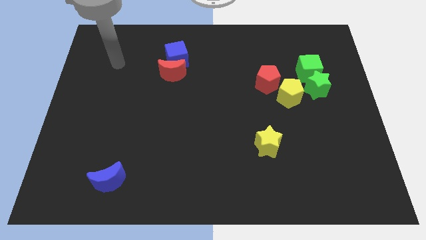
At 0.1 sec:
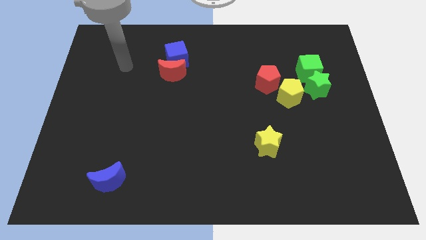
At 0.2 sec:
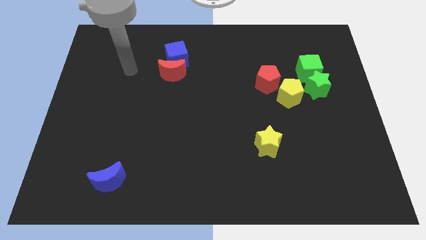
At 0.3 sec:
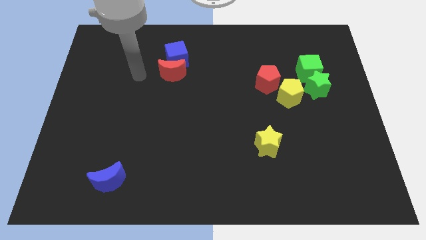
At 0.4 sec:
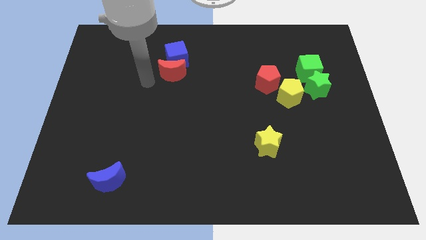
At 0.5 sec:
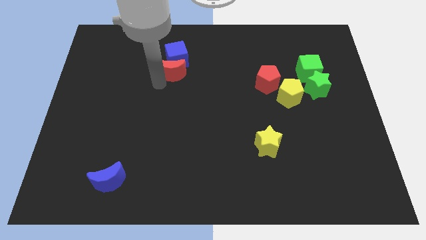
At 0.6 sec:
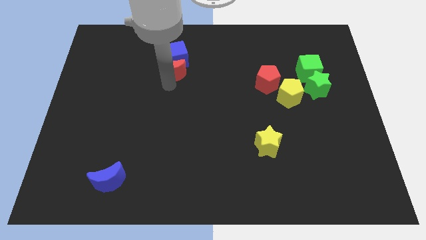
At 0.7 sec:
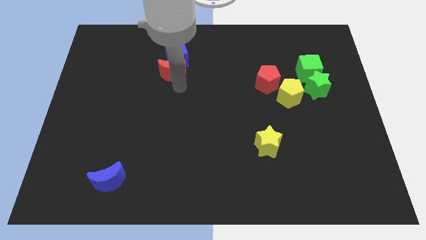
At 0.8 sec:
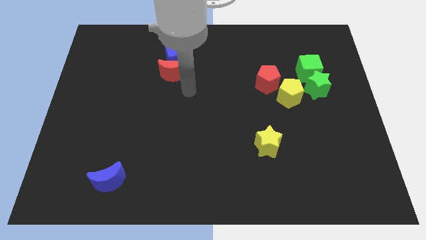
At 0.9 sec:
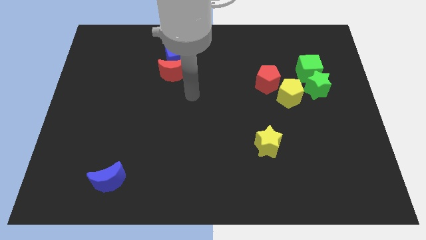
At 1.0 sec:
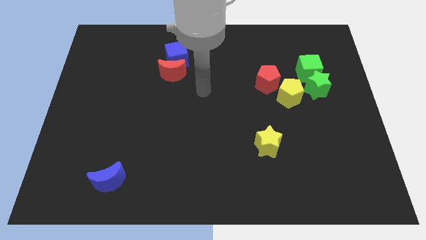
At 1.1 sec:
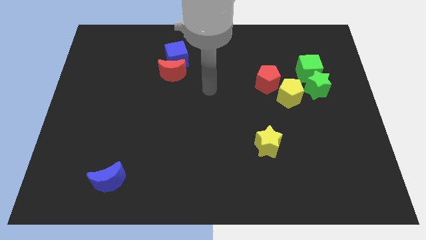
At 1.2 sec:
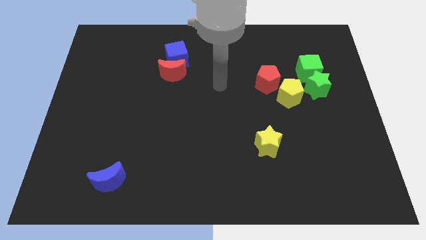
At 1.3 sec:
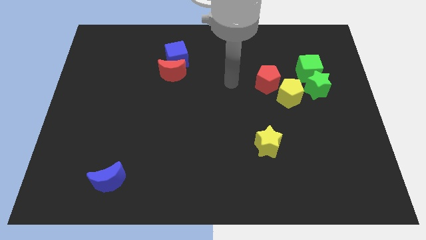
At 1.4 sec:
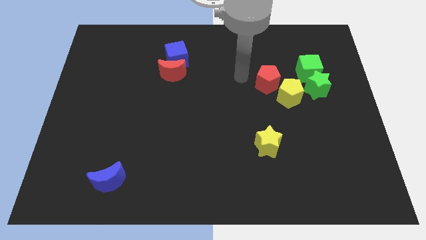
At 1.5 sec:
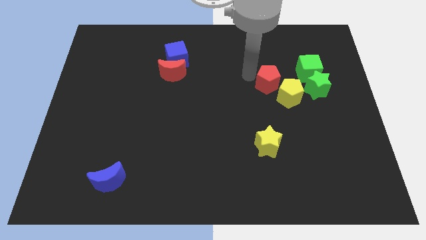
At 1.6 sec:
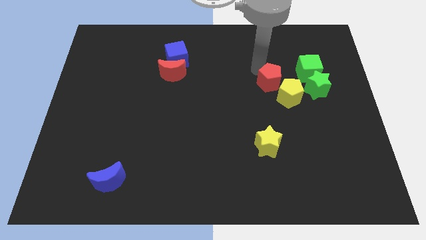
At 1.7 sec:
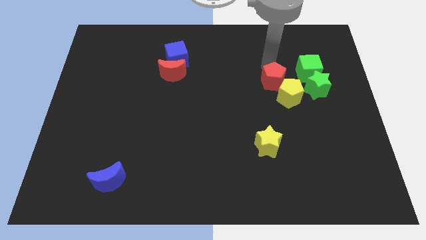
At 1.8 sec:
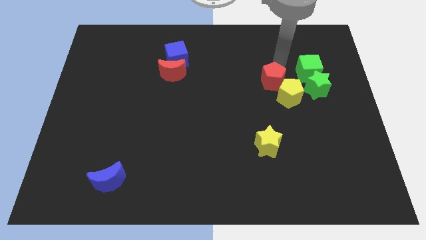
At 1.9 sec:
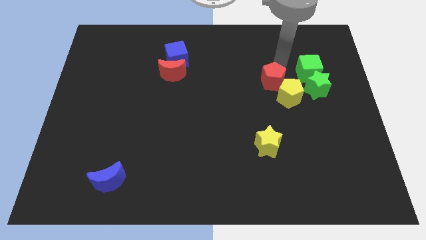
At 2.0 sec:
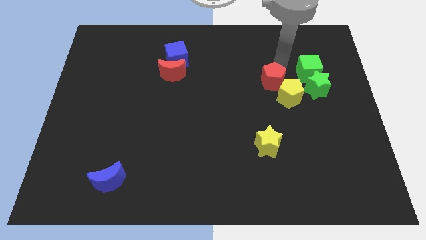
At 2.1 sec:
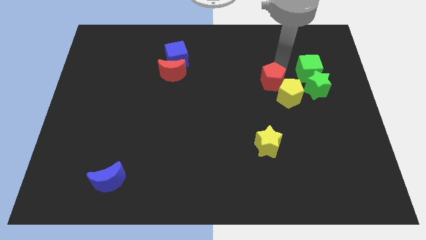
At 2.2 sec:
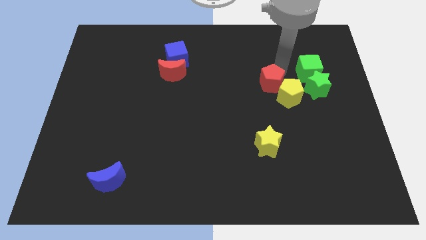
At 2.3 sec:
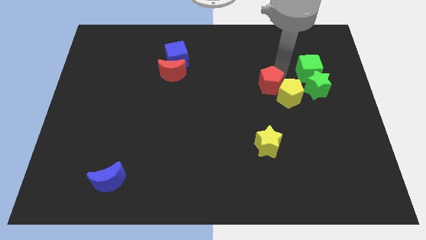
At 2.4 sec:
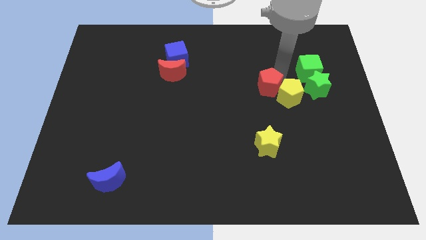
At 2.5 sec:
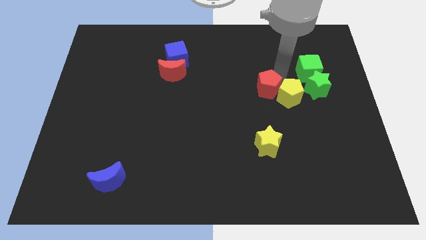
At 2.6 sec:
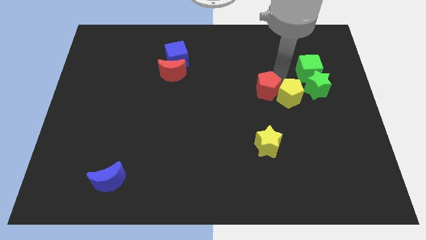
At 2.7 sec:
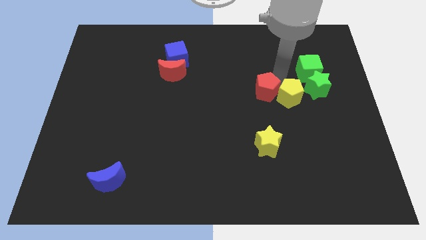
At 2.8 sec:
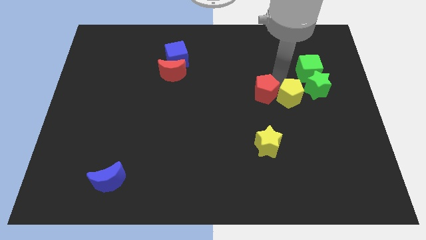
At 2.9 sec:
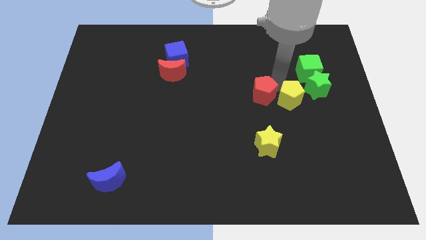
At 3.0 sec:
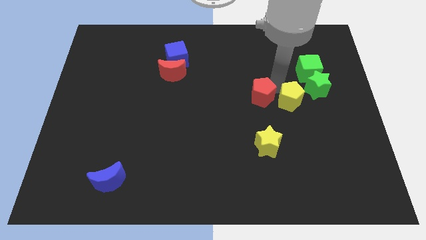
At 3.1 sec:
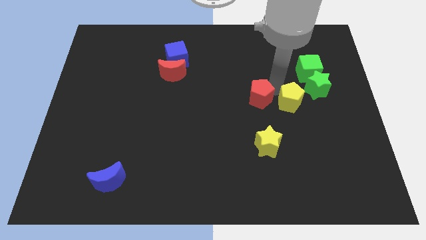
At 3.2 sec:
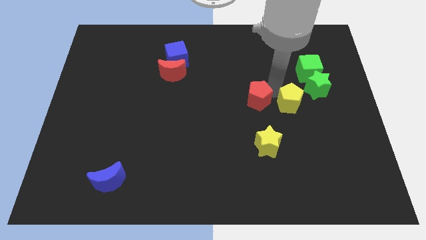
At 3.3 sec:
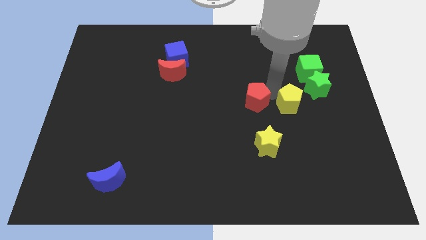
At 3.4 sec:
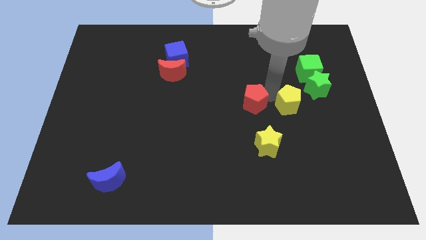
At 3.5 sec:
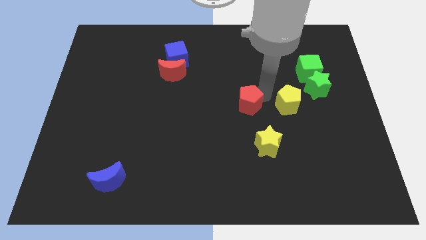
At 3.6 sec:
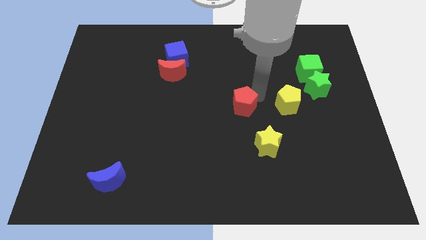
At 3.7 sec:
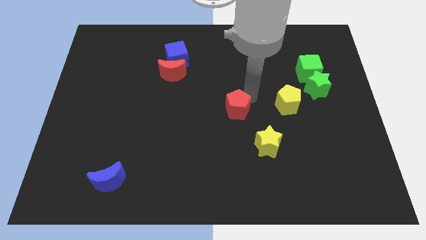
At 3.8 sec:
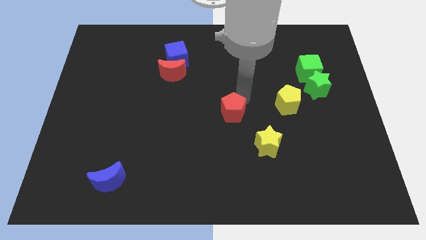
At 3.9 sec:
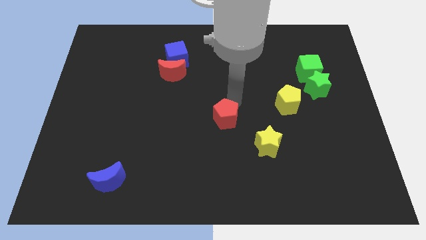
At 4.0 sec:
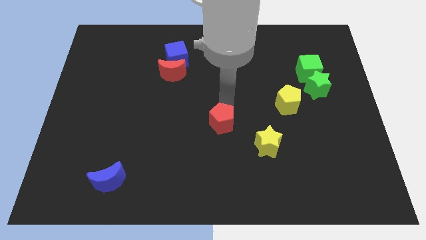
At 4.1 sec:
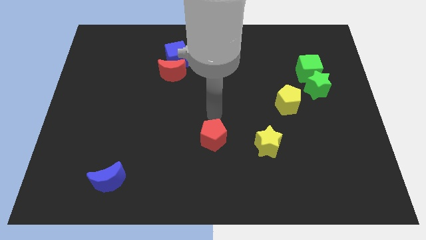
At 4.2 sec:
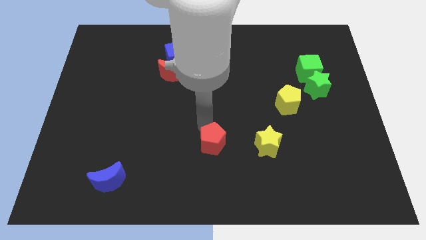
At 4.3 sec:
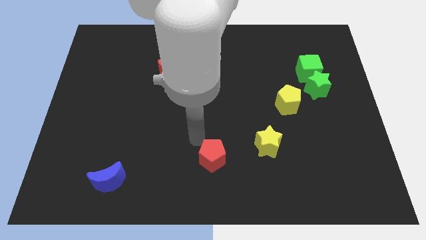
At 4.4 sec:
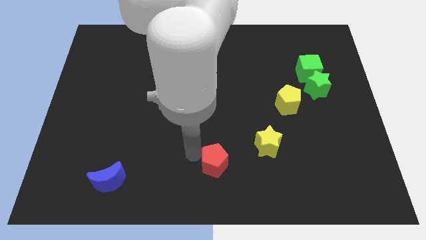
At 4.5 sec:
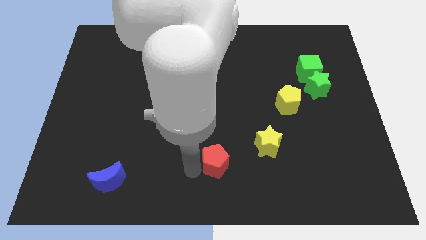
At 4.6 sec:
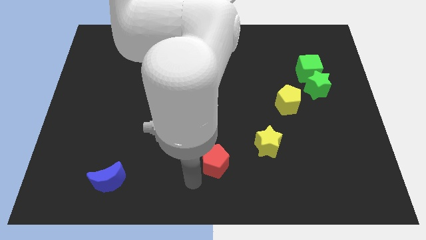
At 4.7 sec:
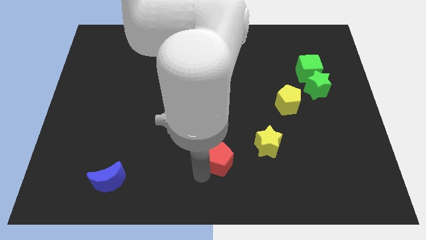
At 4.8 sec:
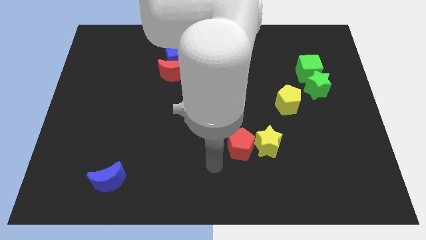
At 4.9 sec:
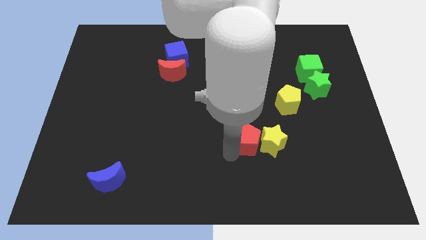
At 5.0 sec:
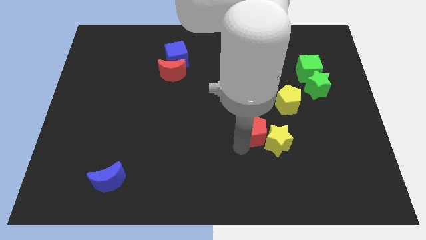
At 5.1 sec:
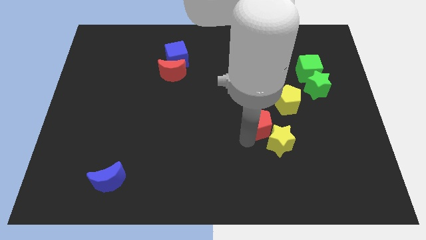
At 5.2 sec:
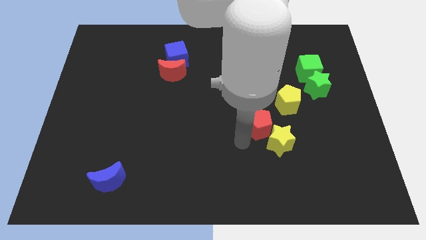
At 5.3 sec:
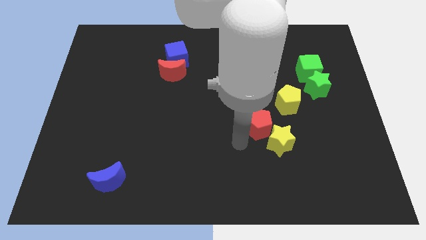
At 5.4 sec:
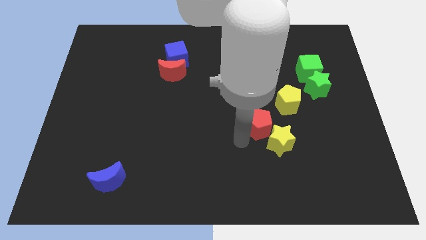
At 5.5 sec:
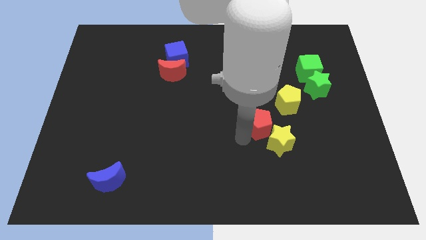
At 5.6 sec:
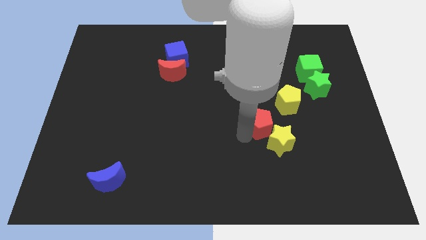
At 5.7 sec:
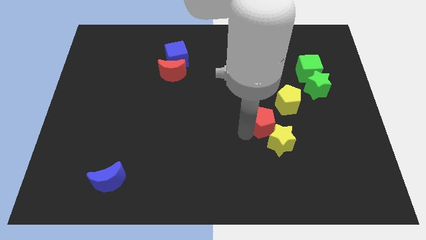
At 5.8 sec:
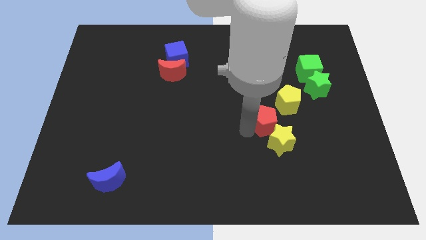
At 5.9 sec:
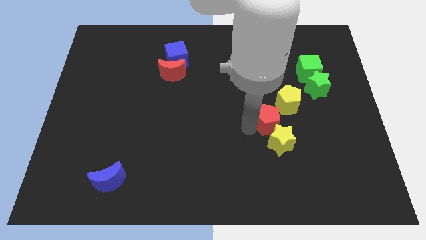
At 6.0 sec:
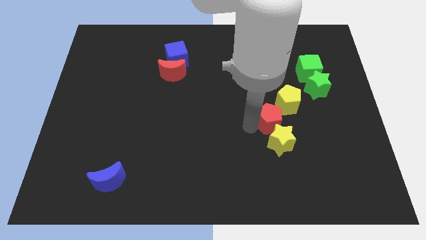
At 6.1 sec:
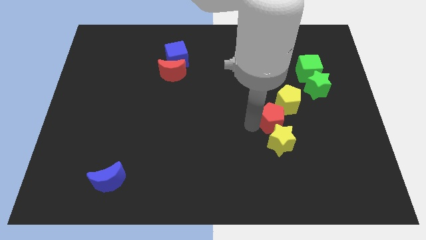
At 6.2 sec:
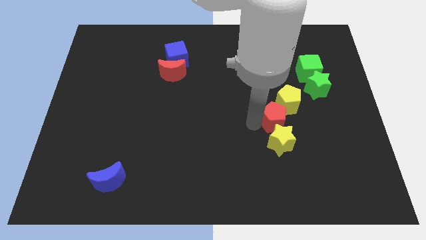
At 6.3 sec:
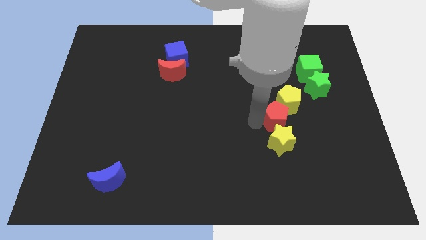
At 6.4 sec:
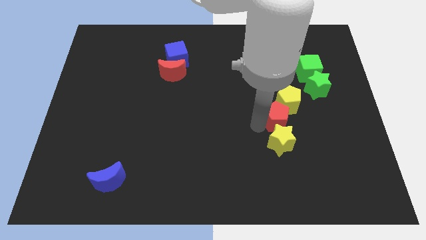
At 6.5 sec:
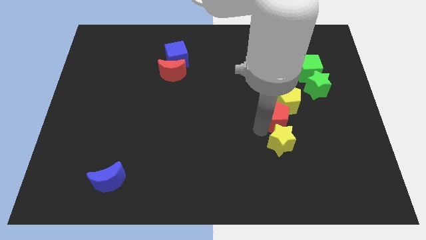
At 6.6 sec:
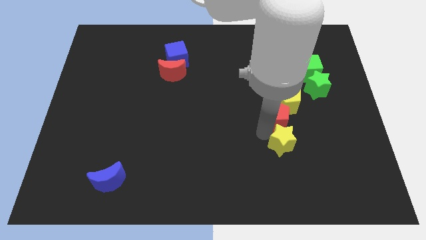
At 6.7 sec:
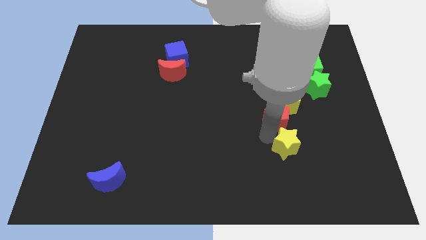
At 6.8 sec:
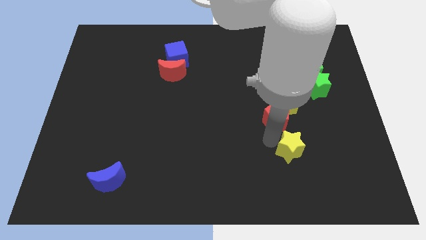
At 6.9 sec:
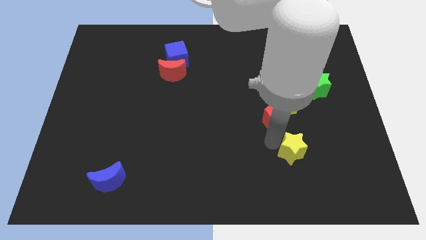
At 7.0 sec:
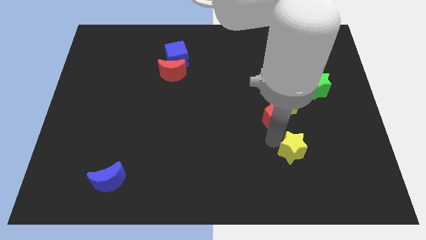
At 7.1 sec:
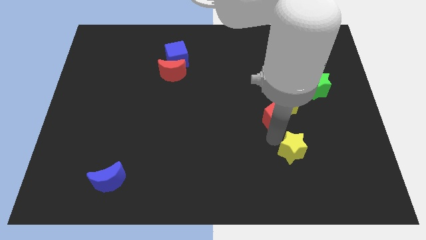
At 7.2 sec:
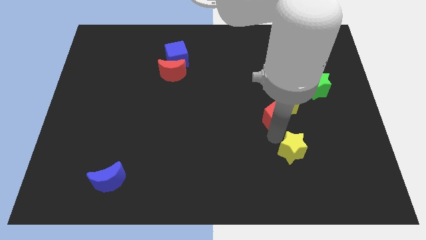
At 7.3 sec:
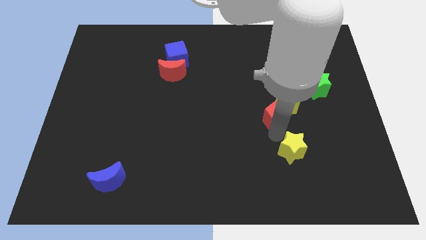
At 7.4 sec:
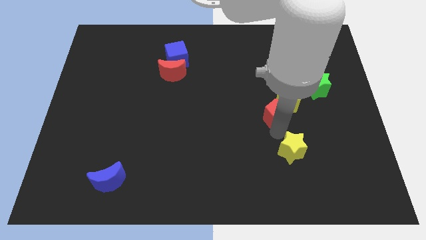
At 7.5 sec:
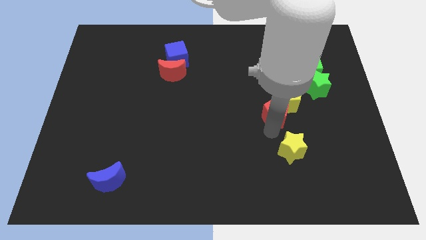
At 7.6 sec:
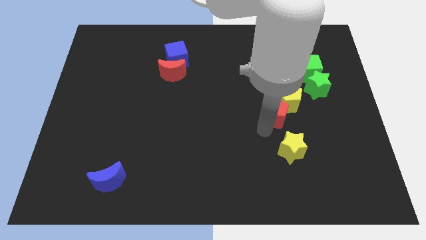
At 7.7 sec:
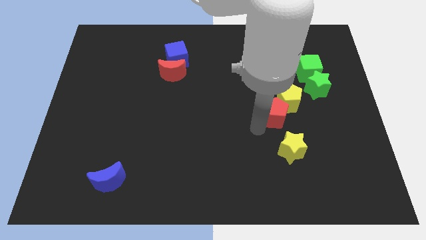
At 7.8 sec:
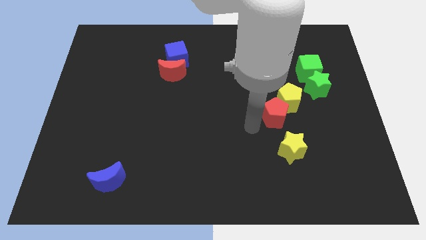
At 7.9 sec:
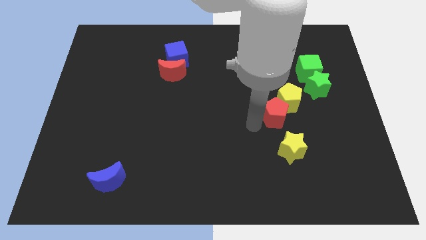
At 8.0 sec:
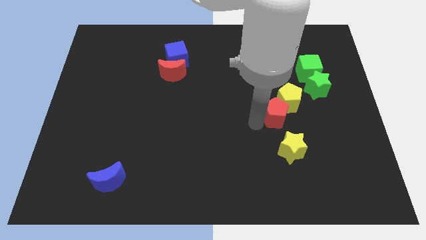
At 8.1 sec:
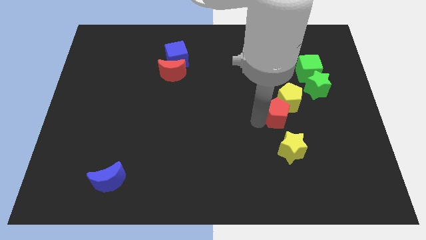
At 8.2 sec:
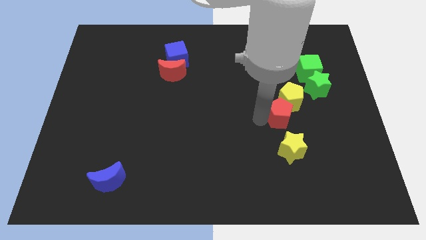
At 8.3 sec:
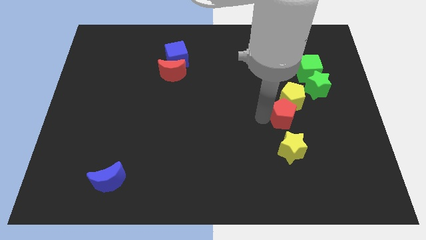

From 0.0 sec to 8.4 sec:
move the red pentagon to the bottom left of the green star
